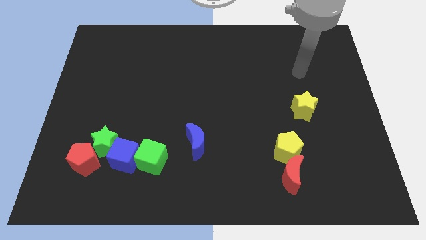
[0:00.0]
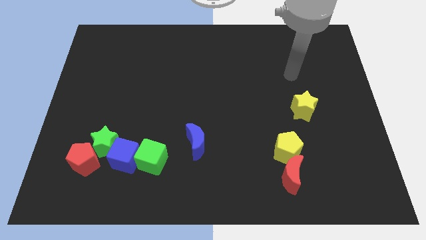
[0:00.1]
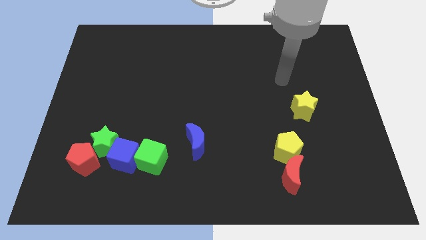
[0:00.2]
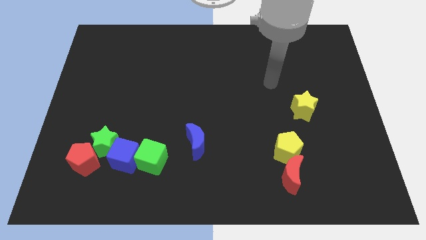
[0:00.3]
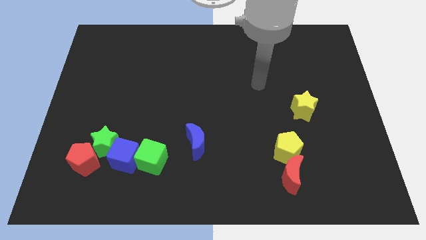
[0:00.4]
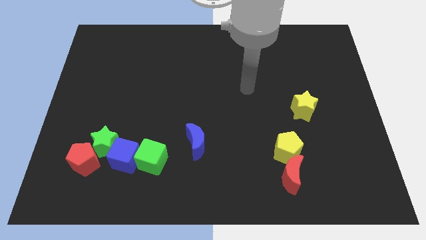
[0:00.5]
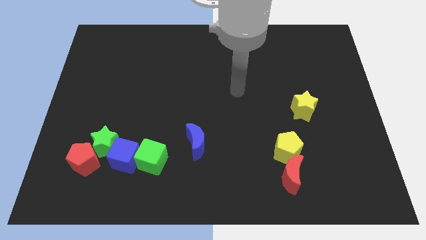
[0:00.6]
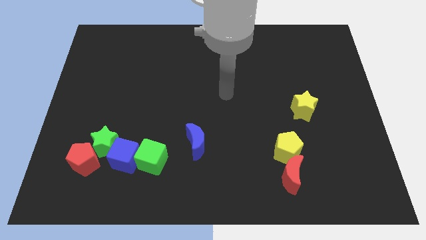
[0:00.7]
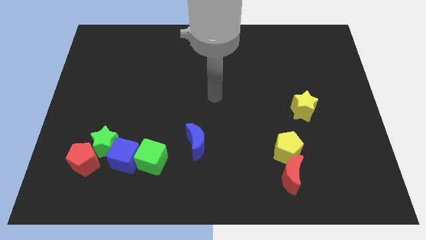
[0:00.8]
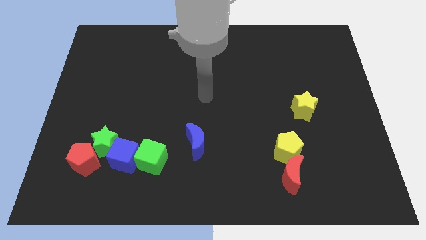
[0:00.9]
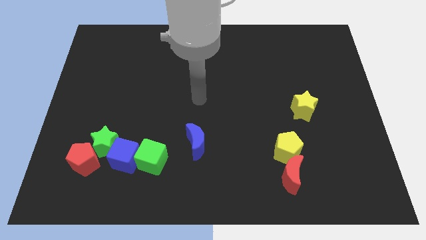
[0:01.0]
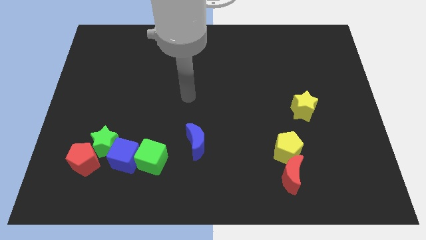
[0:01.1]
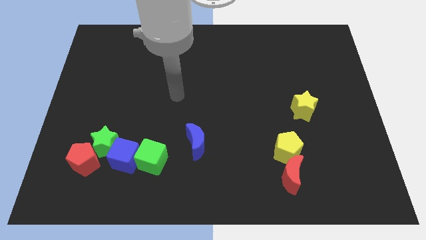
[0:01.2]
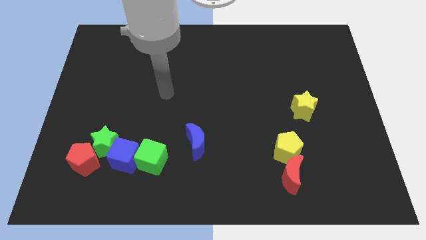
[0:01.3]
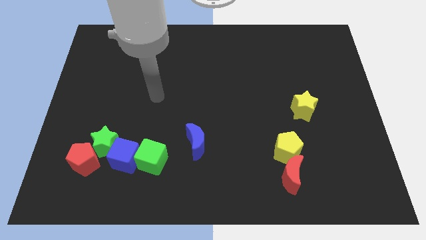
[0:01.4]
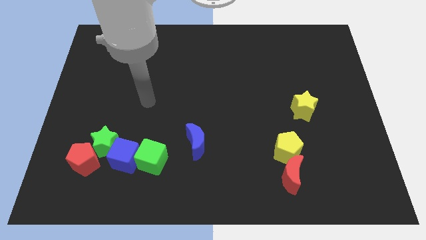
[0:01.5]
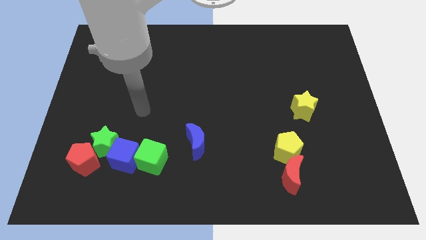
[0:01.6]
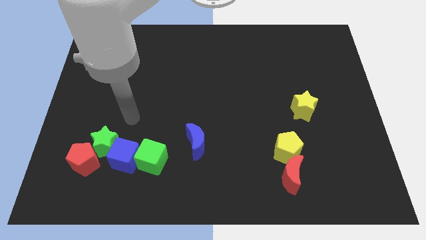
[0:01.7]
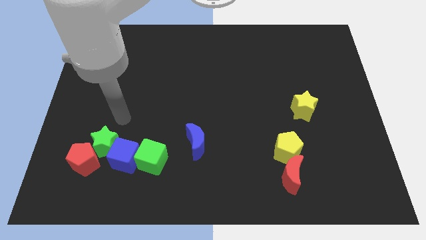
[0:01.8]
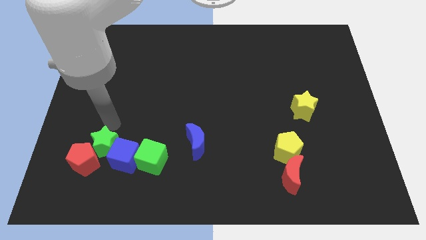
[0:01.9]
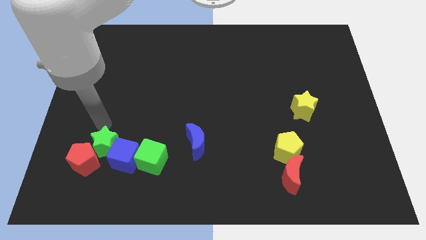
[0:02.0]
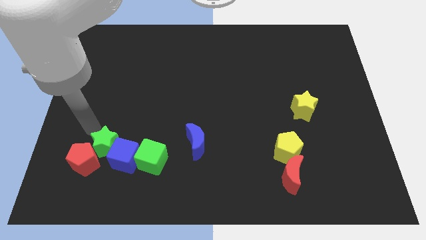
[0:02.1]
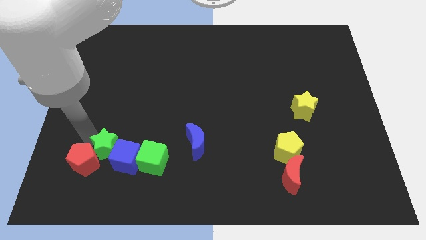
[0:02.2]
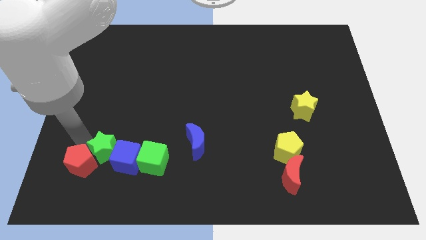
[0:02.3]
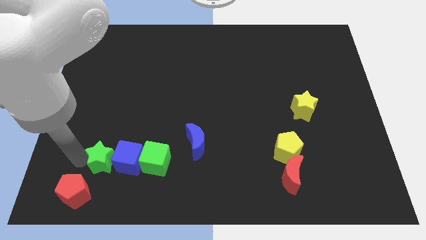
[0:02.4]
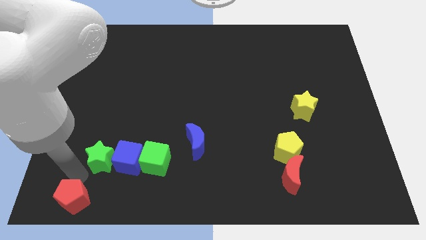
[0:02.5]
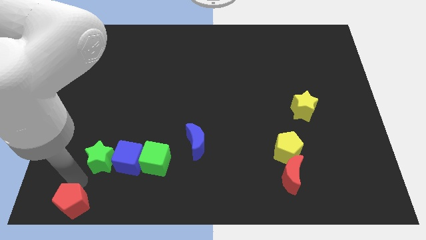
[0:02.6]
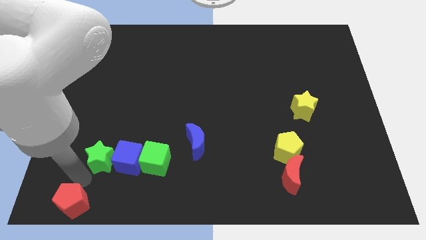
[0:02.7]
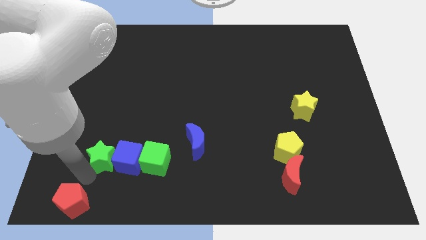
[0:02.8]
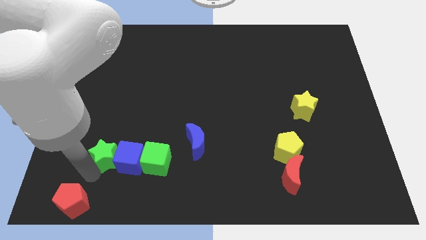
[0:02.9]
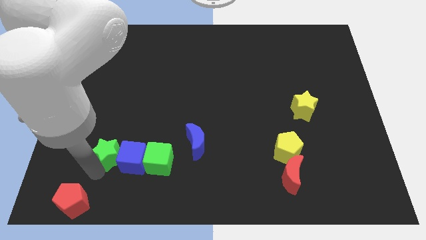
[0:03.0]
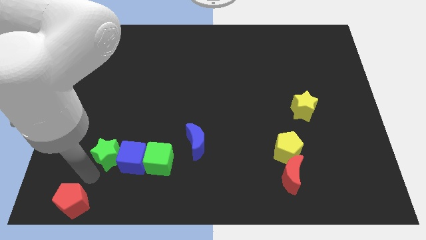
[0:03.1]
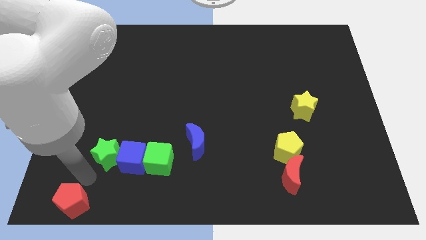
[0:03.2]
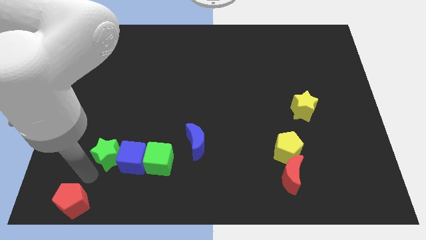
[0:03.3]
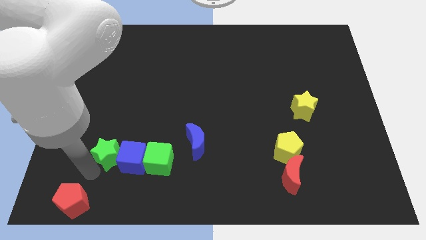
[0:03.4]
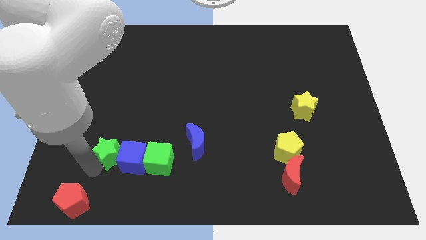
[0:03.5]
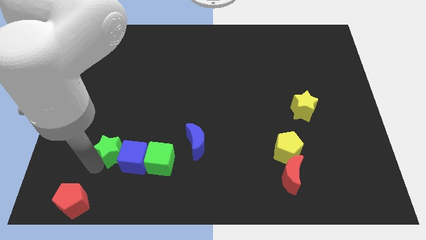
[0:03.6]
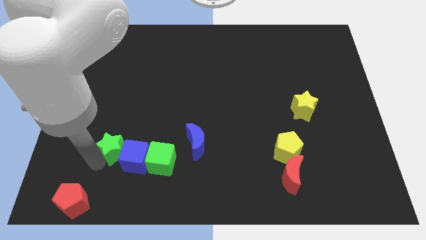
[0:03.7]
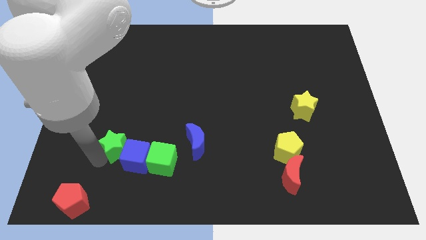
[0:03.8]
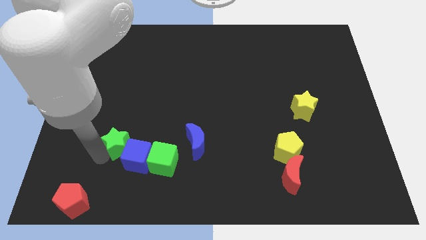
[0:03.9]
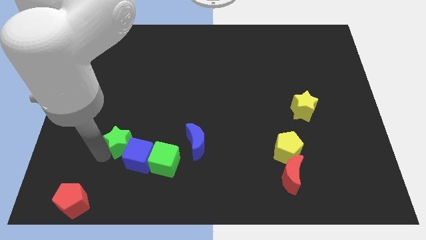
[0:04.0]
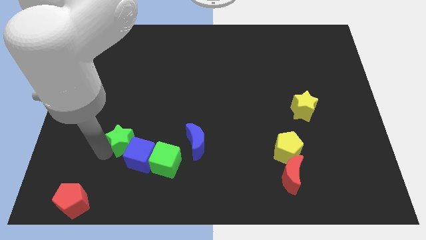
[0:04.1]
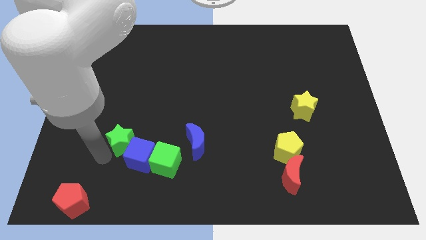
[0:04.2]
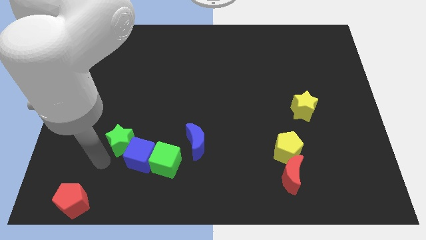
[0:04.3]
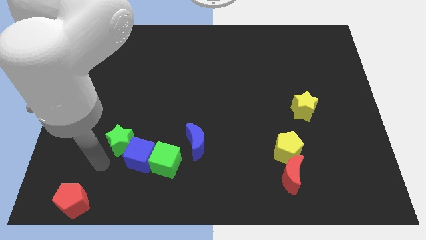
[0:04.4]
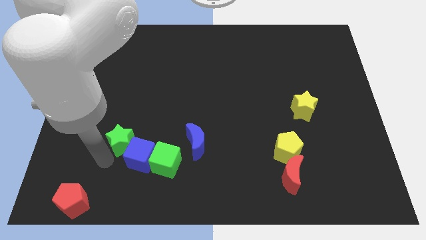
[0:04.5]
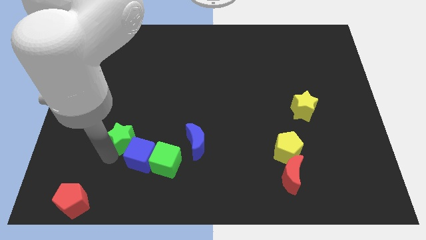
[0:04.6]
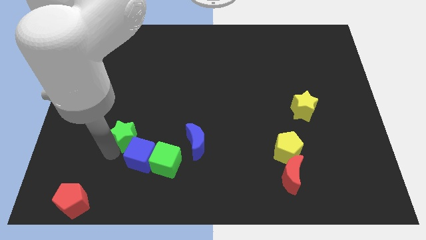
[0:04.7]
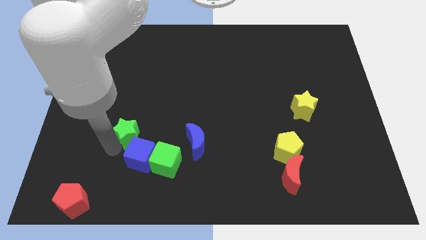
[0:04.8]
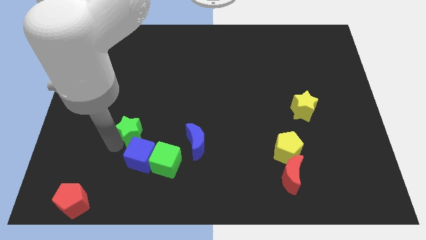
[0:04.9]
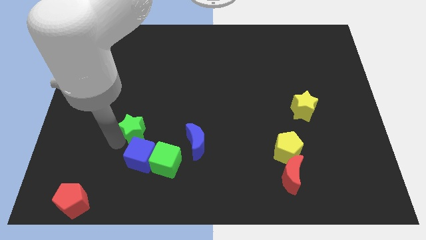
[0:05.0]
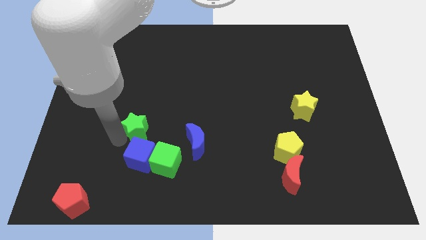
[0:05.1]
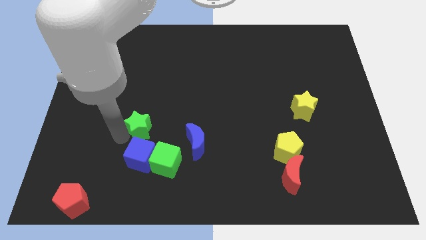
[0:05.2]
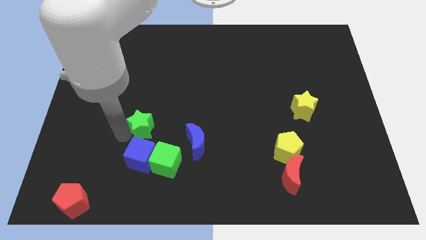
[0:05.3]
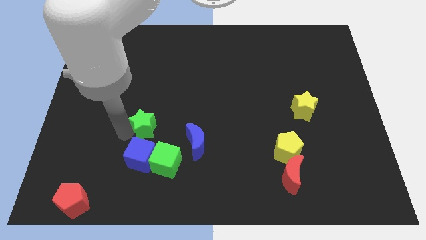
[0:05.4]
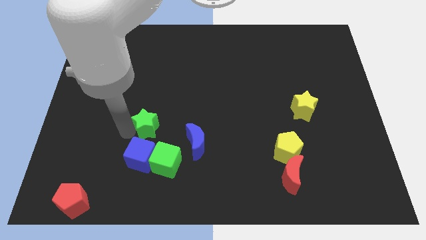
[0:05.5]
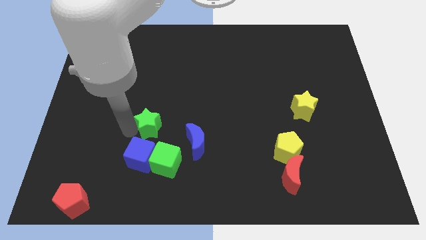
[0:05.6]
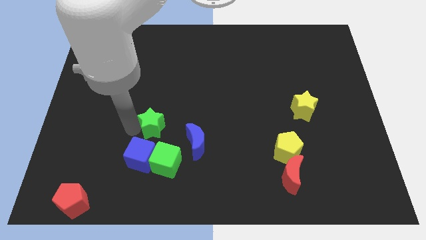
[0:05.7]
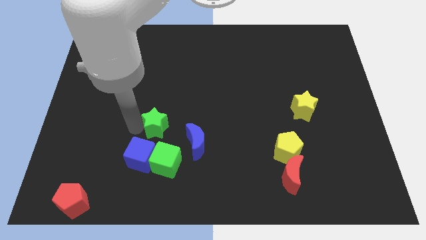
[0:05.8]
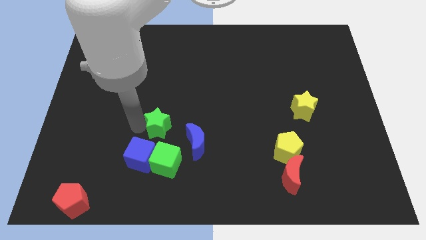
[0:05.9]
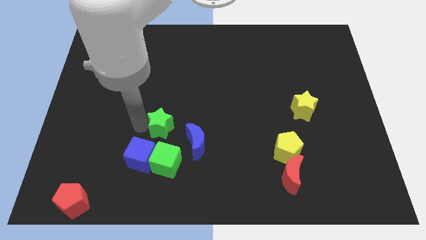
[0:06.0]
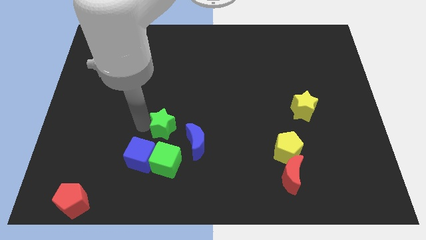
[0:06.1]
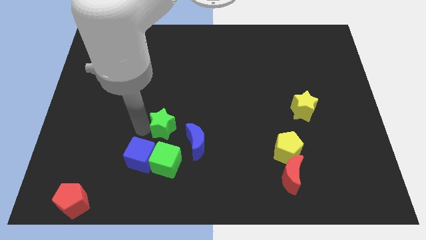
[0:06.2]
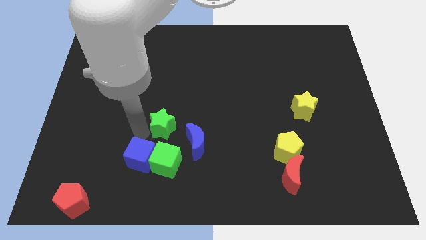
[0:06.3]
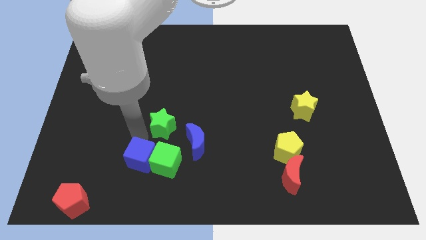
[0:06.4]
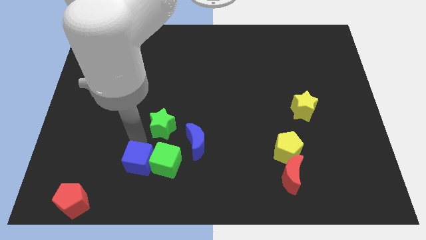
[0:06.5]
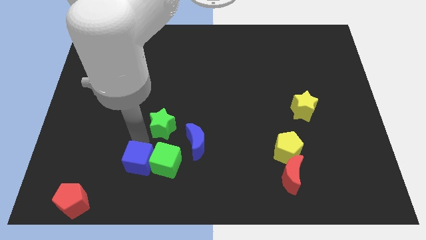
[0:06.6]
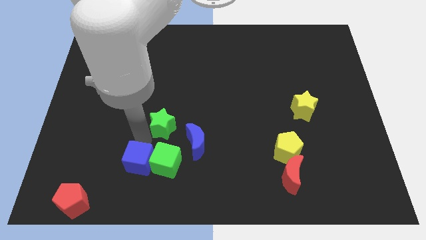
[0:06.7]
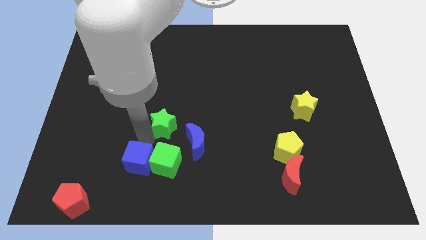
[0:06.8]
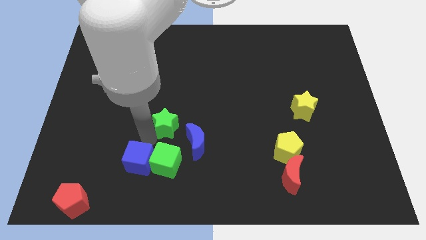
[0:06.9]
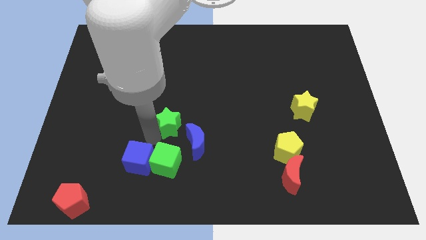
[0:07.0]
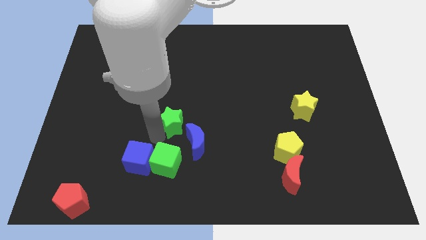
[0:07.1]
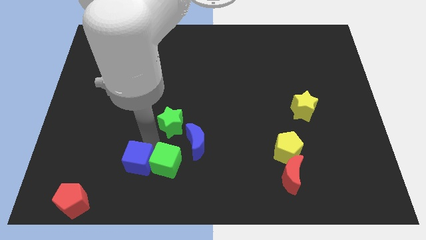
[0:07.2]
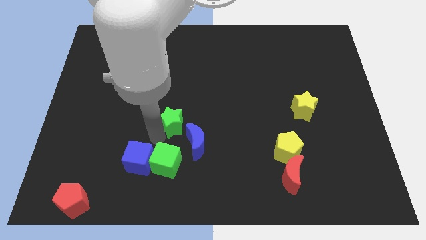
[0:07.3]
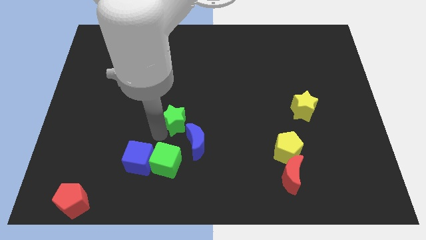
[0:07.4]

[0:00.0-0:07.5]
put the green star above the blue moon
